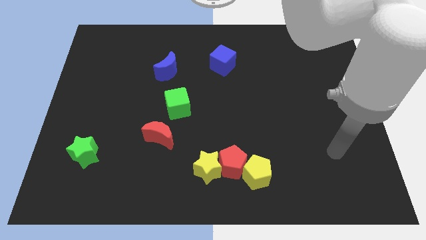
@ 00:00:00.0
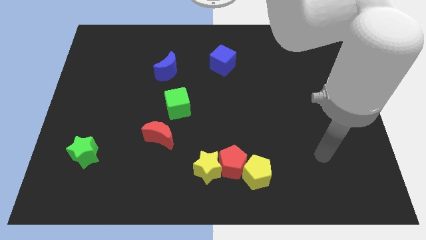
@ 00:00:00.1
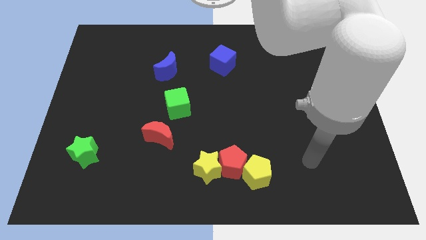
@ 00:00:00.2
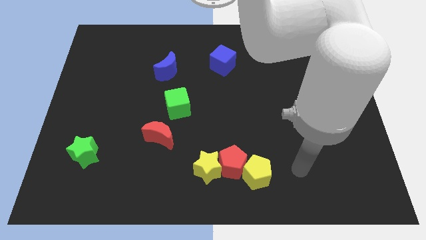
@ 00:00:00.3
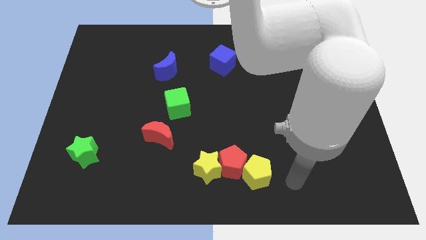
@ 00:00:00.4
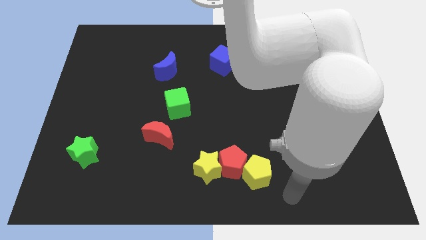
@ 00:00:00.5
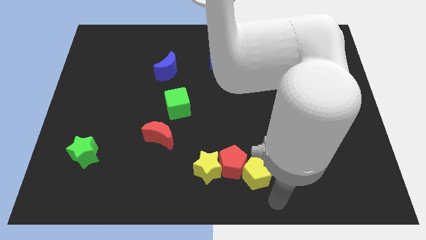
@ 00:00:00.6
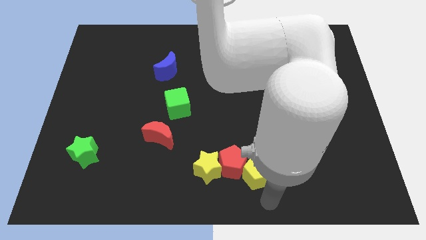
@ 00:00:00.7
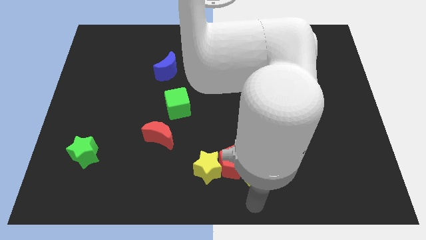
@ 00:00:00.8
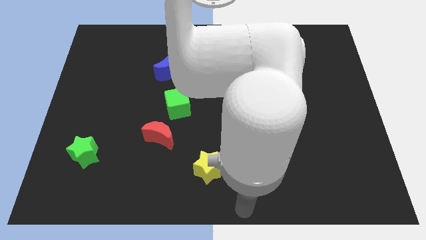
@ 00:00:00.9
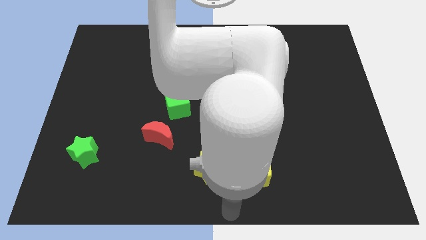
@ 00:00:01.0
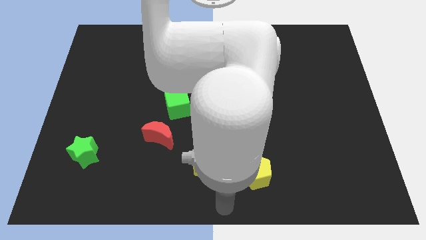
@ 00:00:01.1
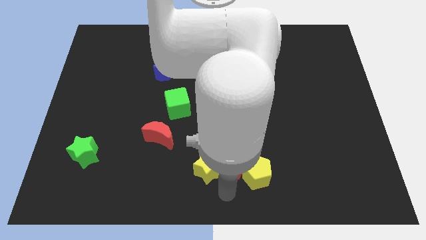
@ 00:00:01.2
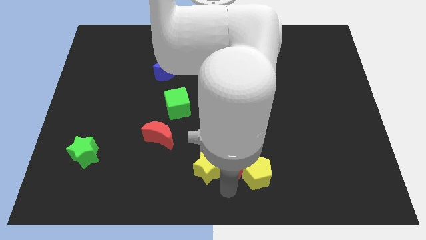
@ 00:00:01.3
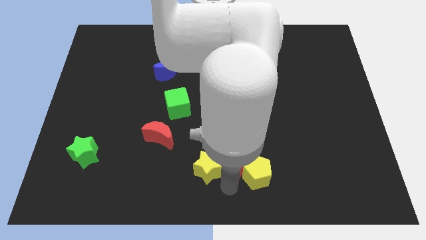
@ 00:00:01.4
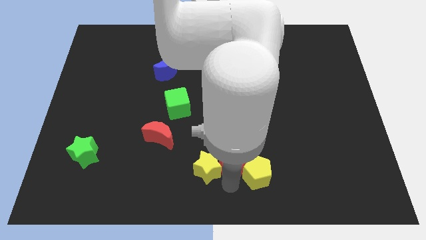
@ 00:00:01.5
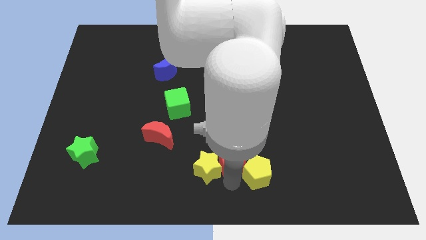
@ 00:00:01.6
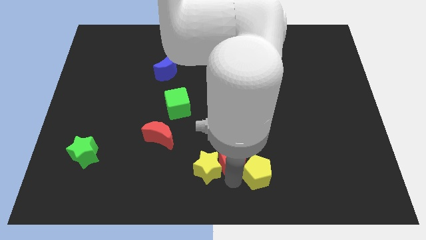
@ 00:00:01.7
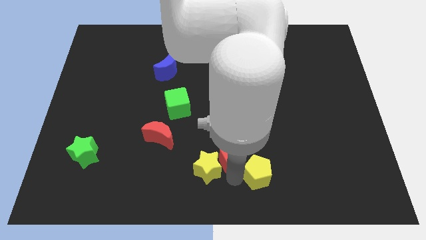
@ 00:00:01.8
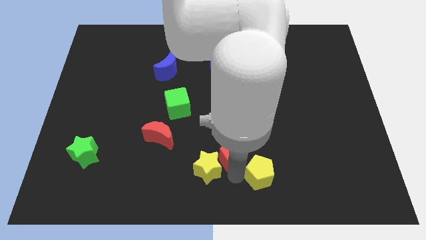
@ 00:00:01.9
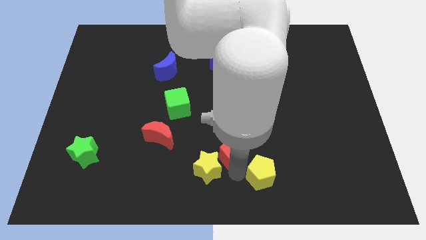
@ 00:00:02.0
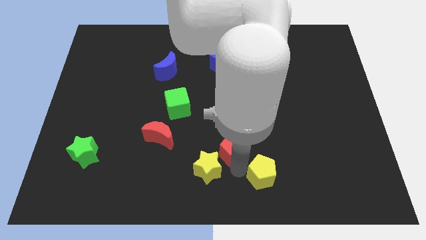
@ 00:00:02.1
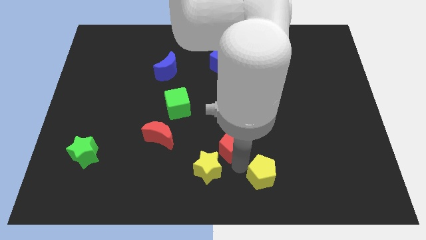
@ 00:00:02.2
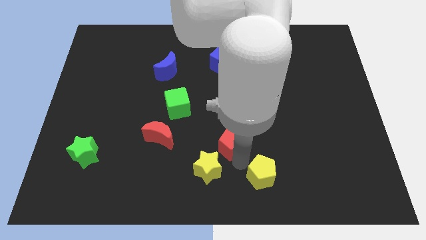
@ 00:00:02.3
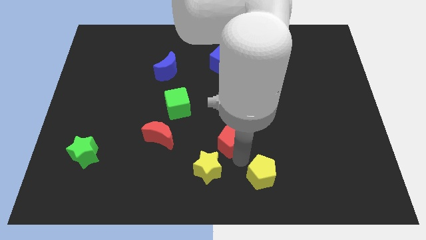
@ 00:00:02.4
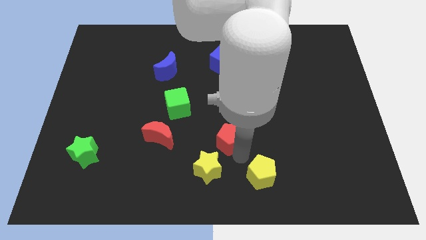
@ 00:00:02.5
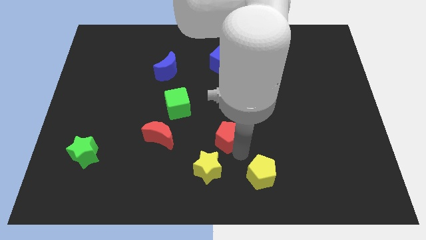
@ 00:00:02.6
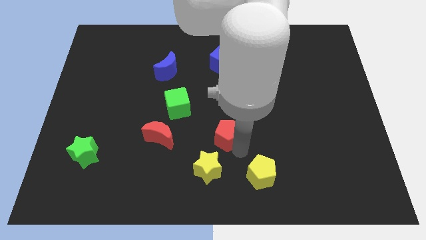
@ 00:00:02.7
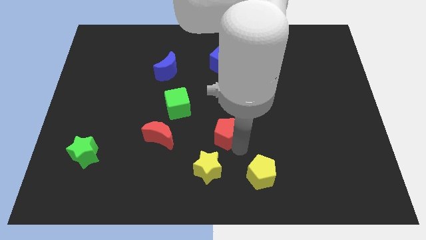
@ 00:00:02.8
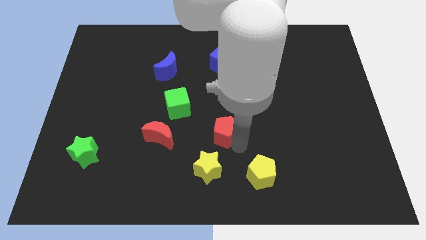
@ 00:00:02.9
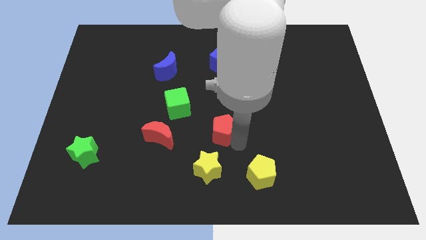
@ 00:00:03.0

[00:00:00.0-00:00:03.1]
separate the red pentagon from the yellow pentagon and yellow star

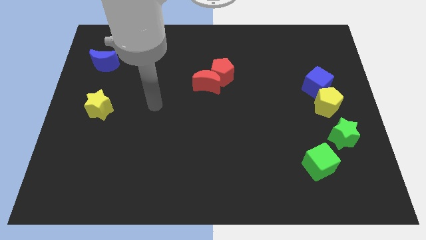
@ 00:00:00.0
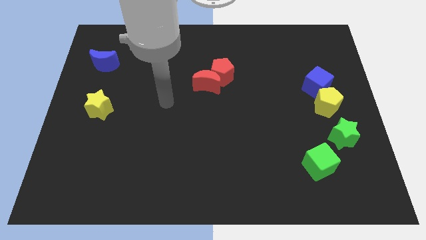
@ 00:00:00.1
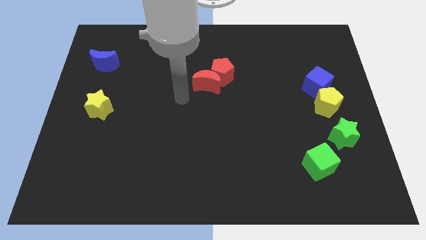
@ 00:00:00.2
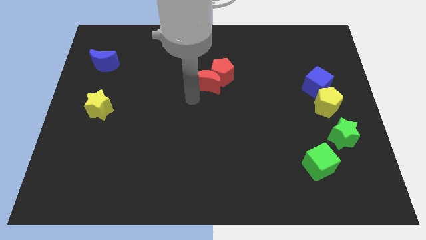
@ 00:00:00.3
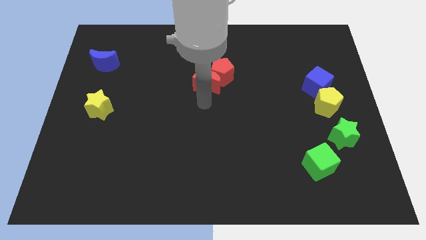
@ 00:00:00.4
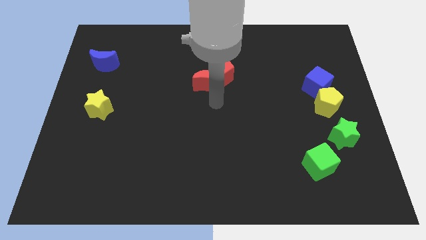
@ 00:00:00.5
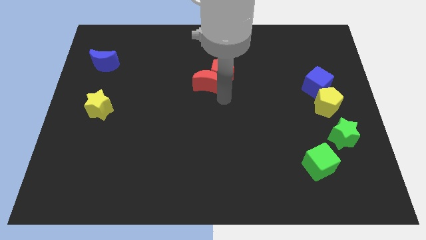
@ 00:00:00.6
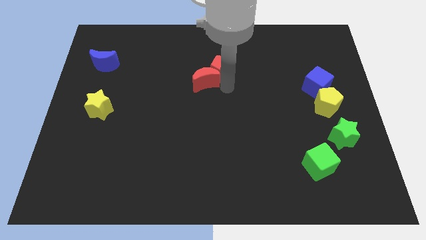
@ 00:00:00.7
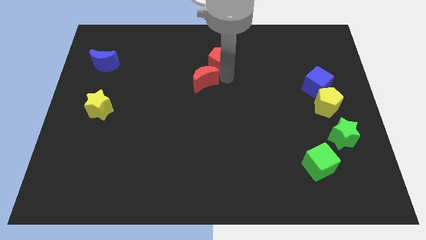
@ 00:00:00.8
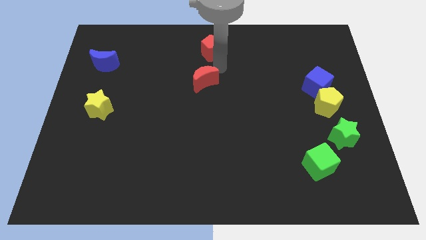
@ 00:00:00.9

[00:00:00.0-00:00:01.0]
separate the red moon from the red pentagon

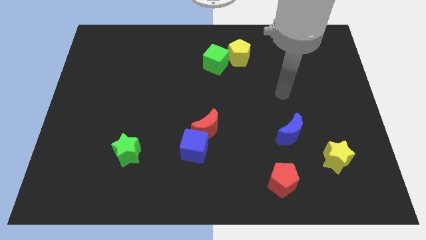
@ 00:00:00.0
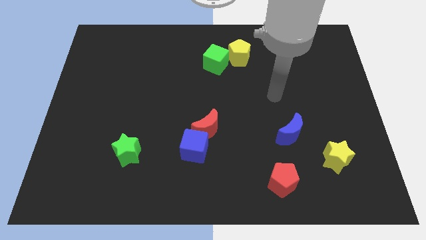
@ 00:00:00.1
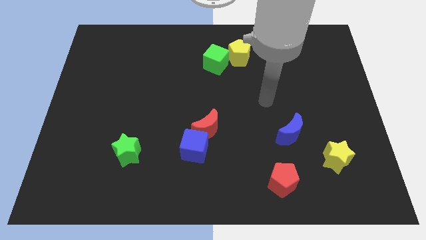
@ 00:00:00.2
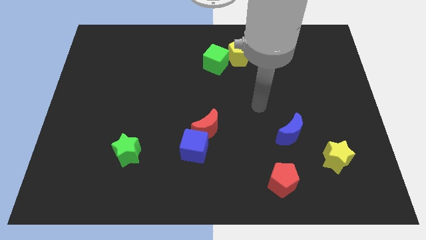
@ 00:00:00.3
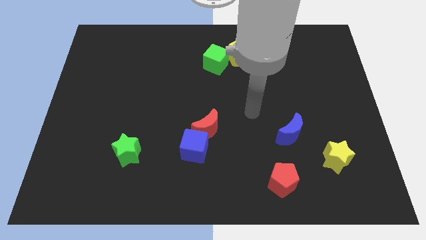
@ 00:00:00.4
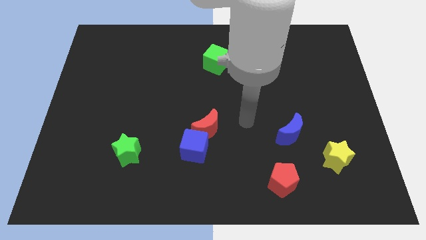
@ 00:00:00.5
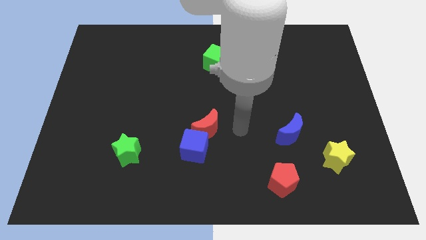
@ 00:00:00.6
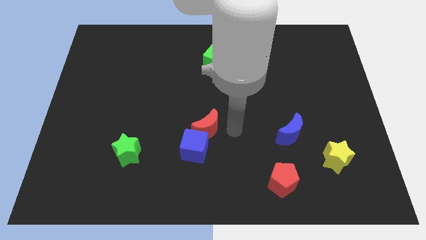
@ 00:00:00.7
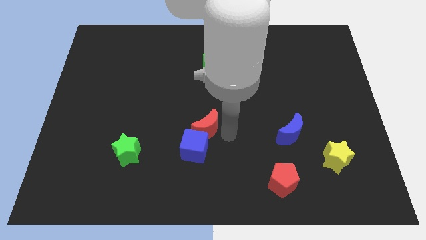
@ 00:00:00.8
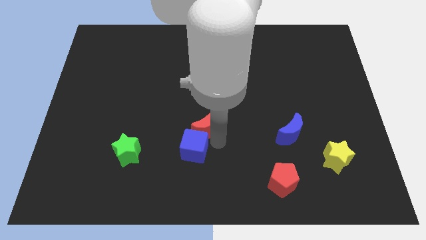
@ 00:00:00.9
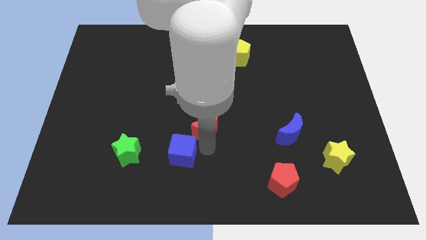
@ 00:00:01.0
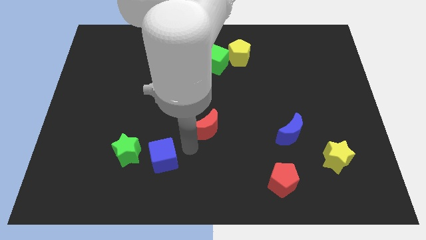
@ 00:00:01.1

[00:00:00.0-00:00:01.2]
move the red moon away from the blue cube

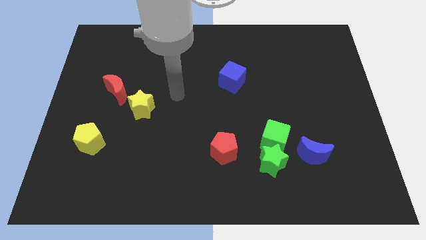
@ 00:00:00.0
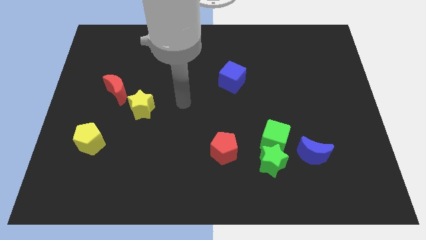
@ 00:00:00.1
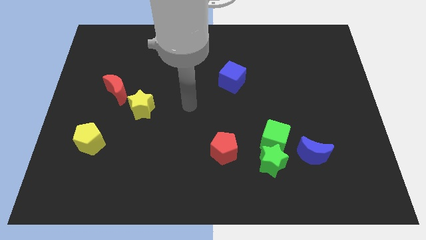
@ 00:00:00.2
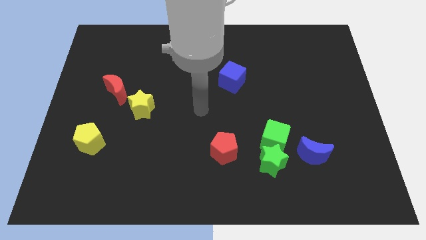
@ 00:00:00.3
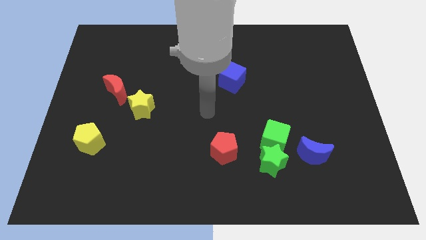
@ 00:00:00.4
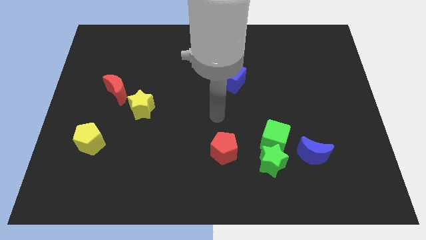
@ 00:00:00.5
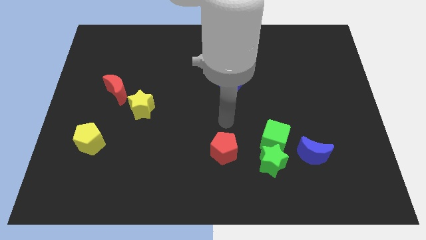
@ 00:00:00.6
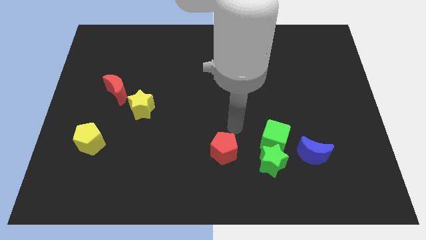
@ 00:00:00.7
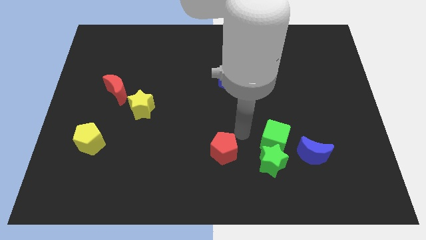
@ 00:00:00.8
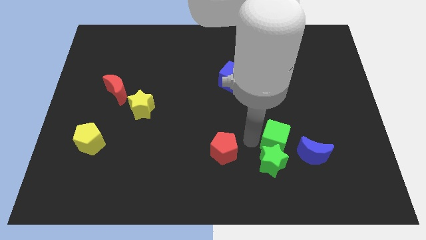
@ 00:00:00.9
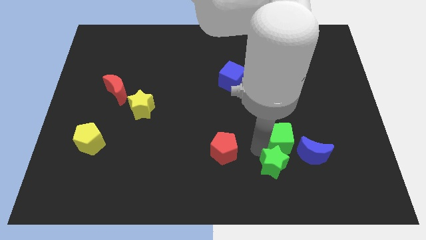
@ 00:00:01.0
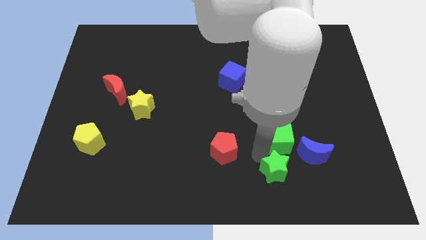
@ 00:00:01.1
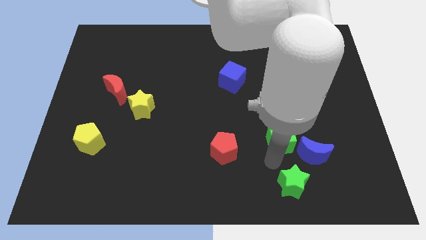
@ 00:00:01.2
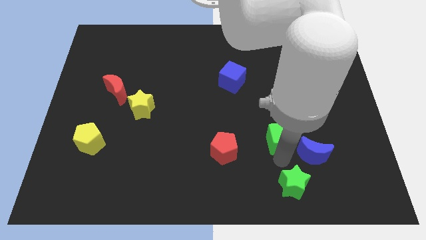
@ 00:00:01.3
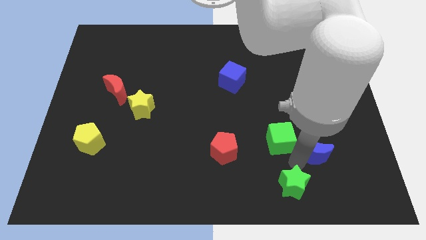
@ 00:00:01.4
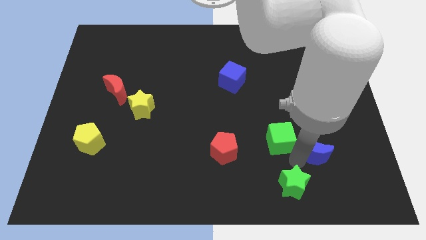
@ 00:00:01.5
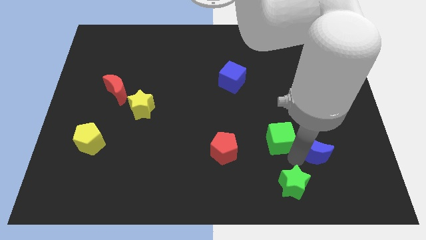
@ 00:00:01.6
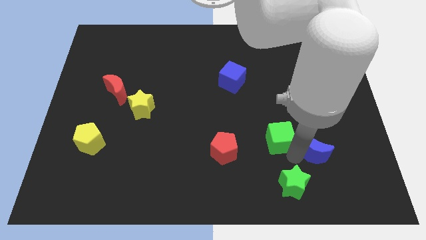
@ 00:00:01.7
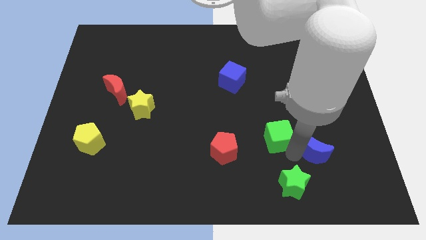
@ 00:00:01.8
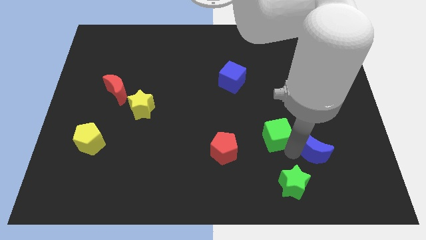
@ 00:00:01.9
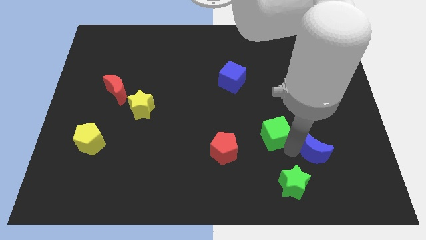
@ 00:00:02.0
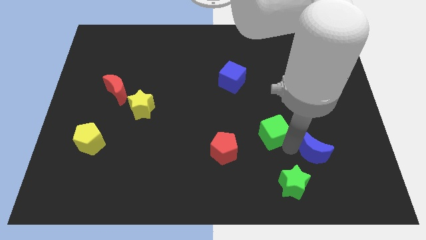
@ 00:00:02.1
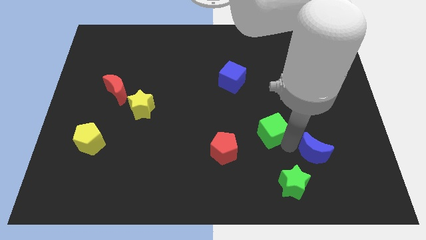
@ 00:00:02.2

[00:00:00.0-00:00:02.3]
move the green cube away from the green star and blue moon

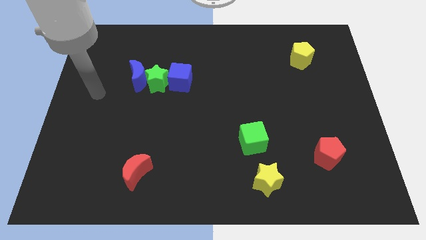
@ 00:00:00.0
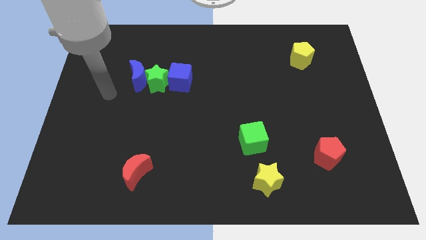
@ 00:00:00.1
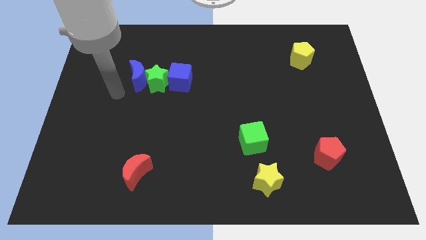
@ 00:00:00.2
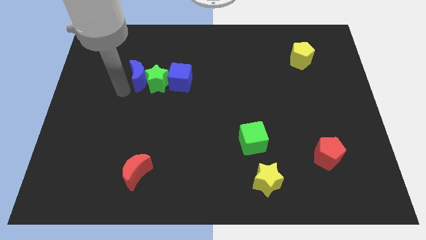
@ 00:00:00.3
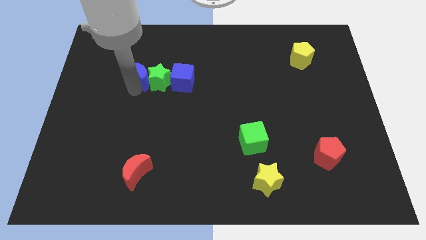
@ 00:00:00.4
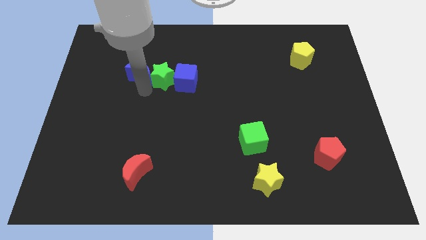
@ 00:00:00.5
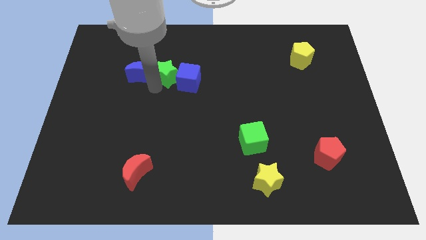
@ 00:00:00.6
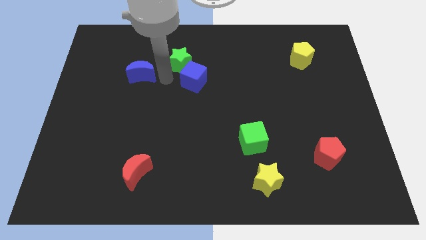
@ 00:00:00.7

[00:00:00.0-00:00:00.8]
move the blue moon away from the green star

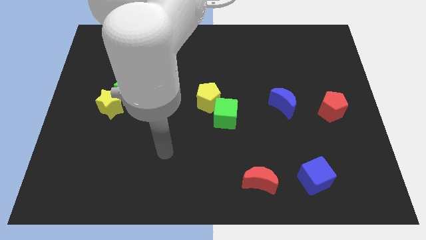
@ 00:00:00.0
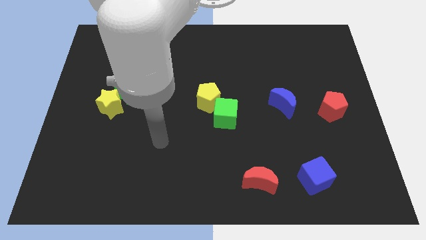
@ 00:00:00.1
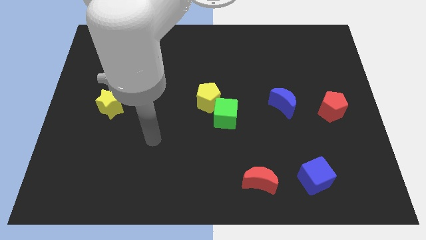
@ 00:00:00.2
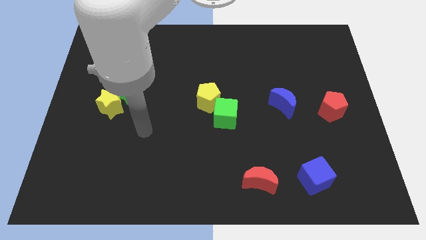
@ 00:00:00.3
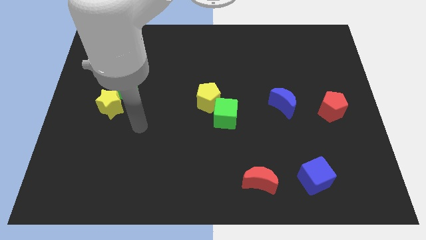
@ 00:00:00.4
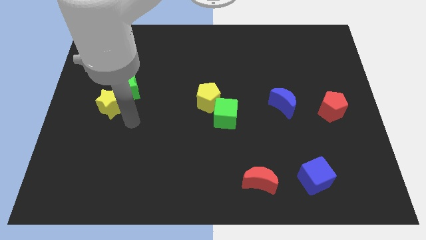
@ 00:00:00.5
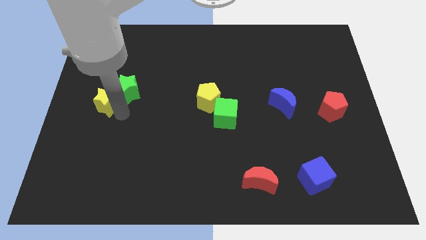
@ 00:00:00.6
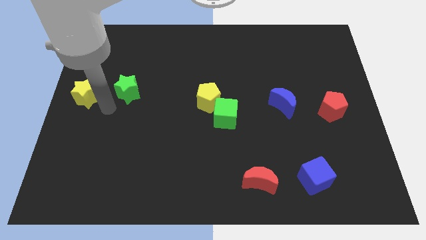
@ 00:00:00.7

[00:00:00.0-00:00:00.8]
separate the green star from the yellow star
